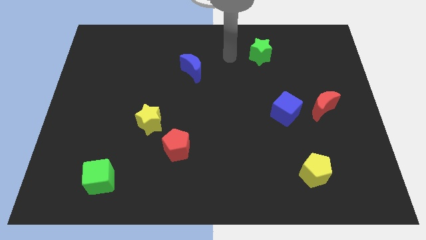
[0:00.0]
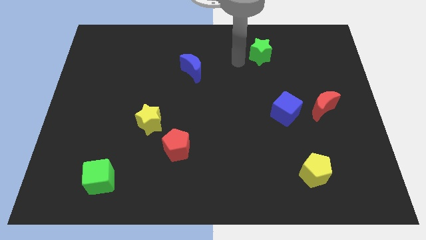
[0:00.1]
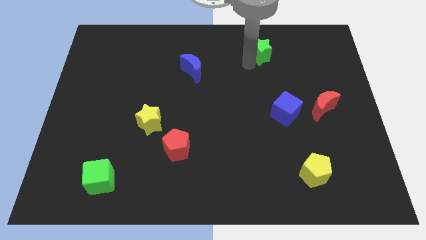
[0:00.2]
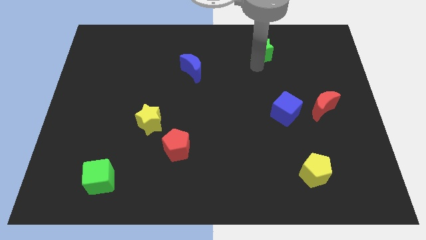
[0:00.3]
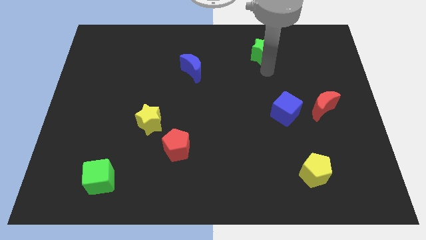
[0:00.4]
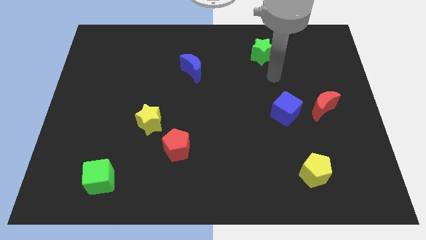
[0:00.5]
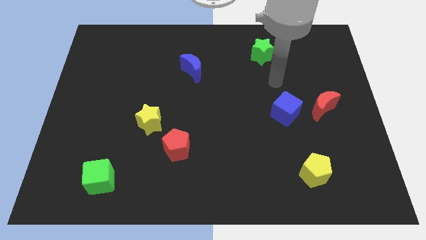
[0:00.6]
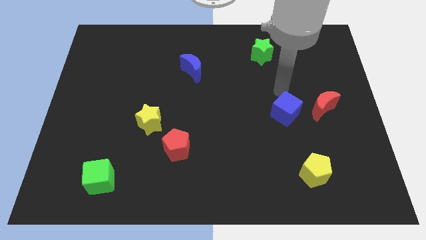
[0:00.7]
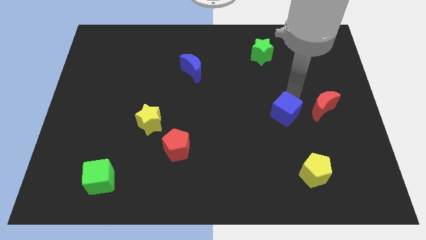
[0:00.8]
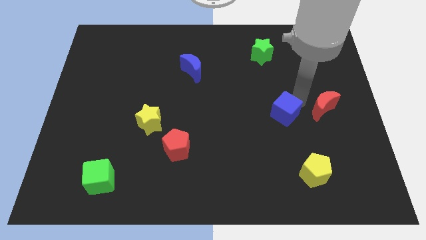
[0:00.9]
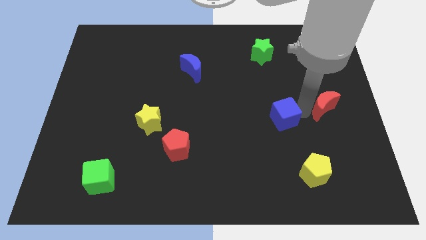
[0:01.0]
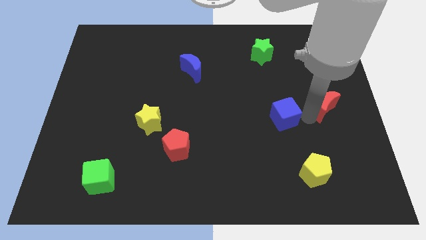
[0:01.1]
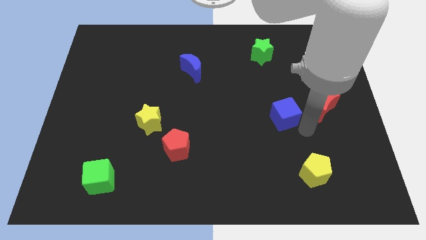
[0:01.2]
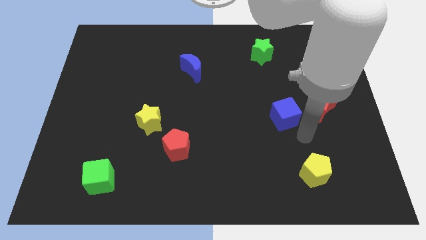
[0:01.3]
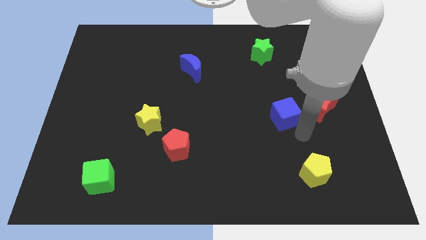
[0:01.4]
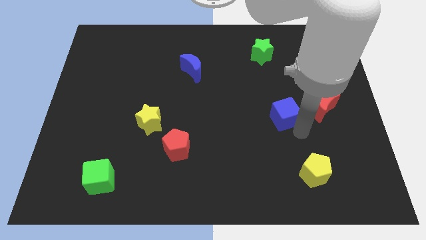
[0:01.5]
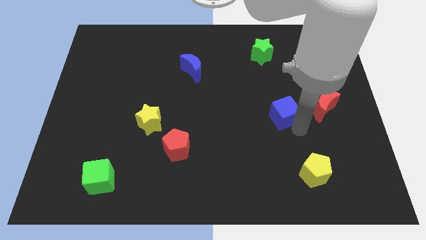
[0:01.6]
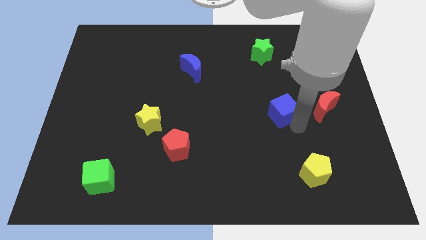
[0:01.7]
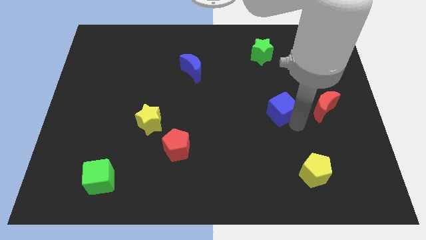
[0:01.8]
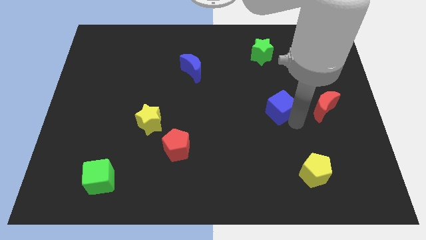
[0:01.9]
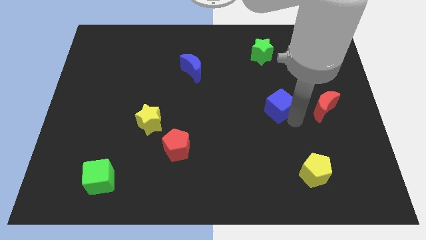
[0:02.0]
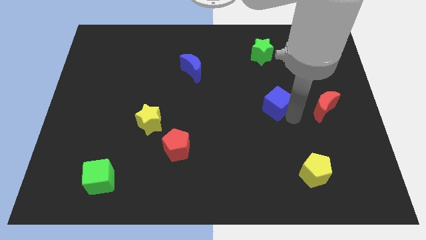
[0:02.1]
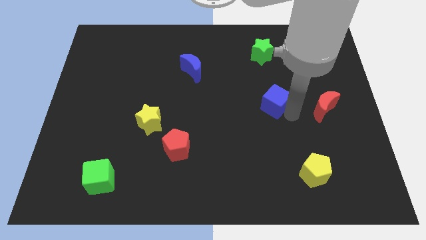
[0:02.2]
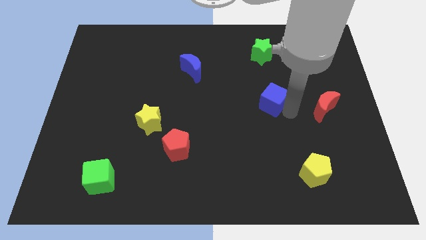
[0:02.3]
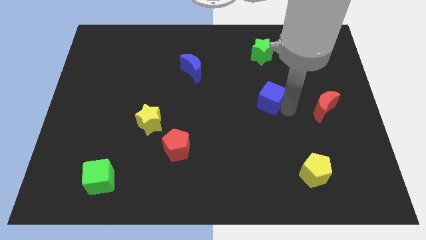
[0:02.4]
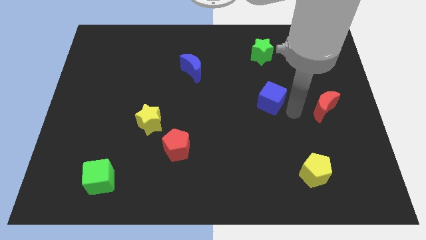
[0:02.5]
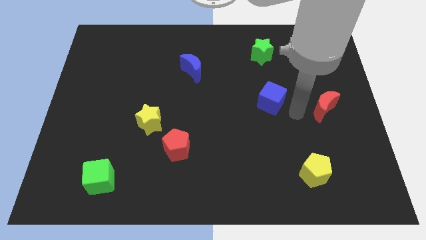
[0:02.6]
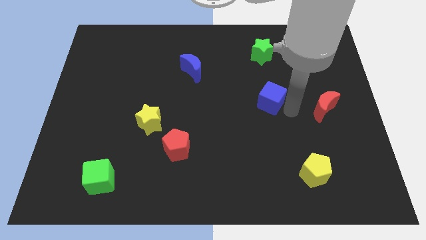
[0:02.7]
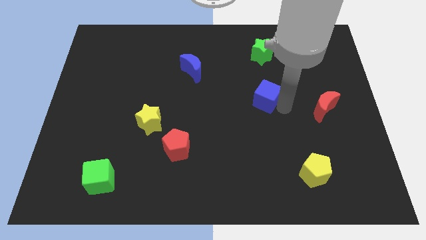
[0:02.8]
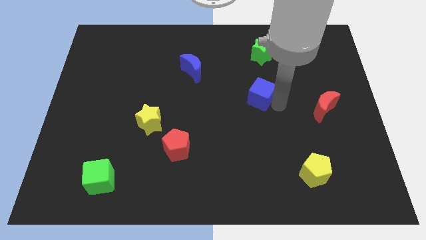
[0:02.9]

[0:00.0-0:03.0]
move the blue cube up and to the left slightly

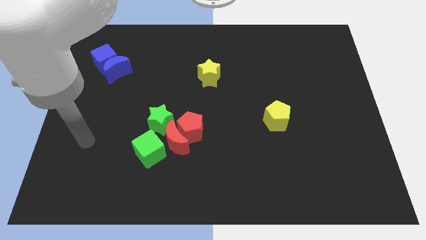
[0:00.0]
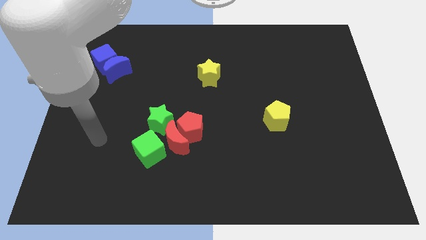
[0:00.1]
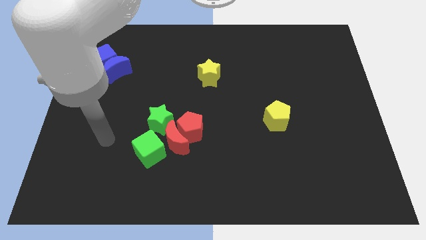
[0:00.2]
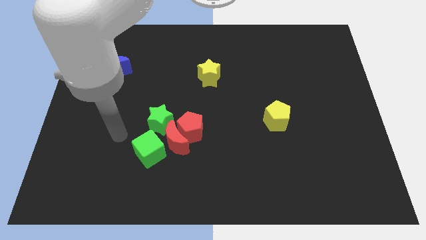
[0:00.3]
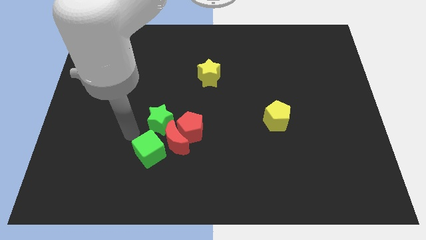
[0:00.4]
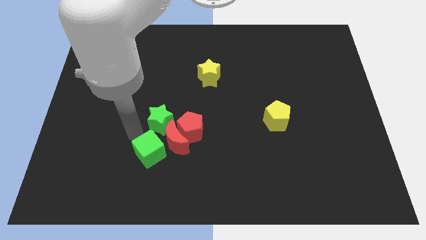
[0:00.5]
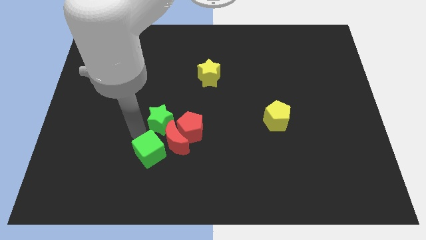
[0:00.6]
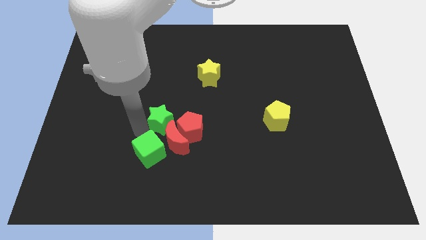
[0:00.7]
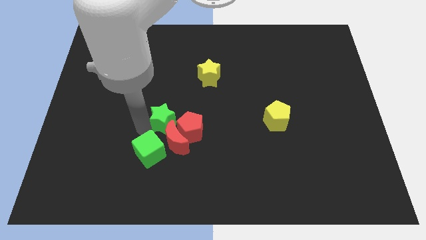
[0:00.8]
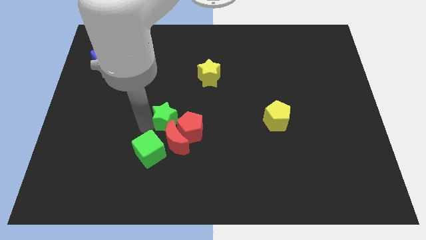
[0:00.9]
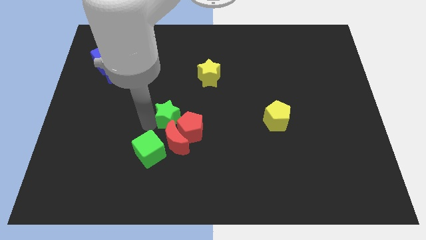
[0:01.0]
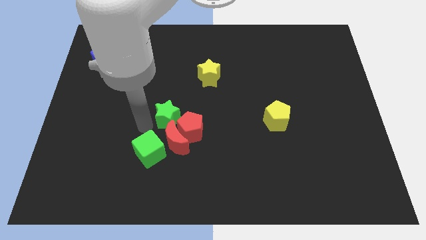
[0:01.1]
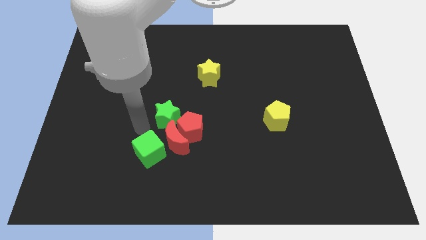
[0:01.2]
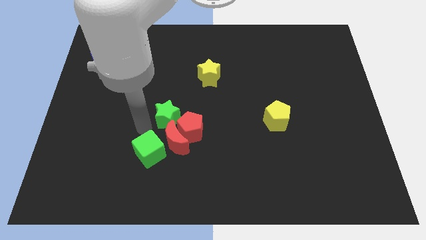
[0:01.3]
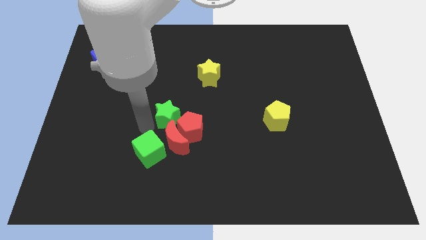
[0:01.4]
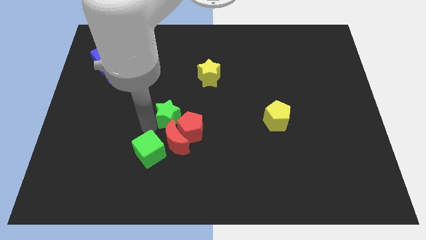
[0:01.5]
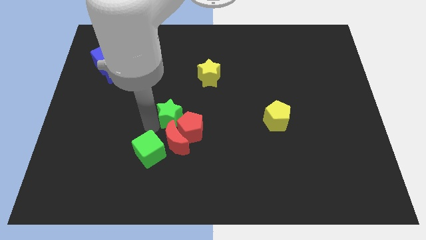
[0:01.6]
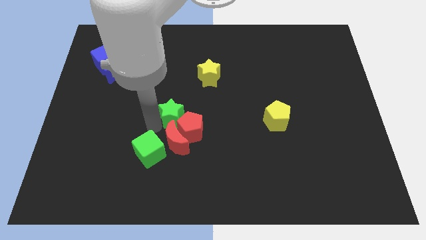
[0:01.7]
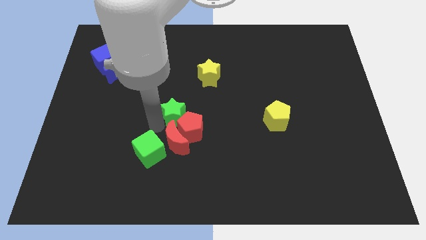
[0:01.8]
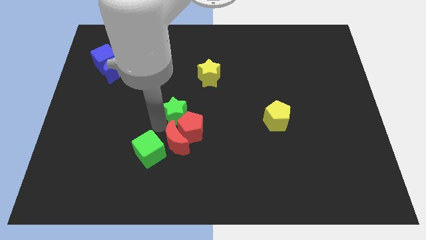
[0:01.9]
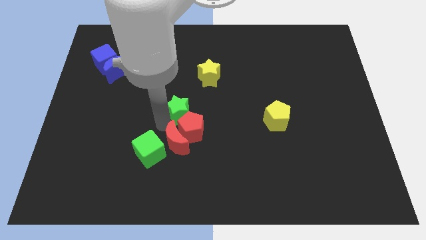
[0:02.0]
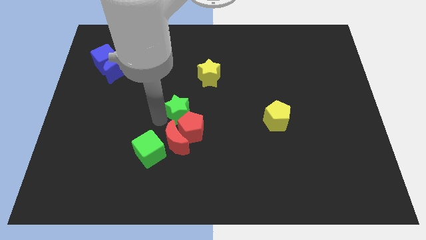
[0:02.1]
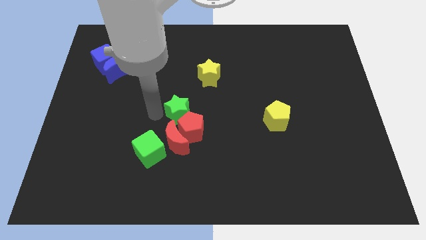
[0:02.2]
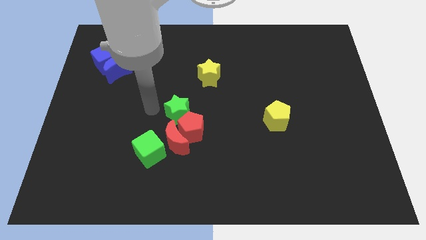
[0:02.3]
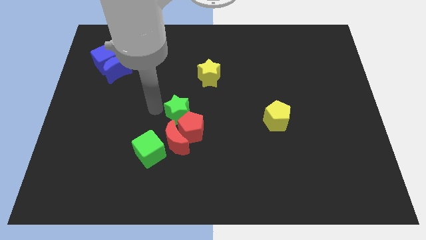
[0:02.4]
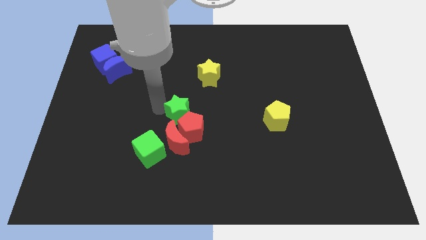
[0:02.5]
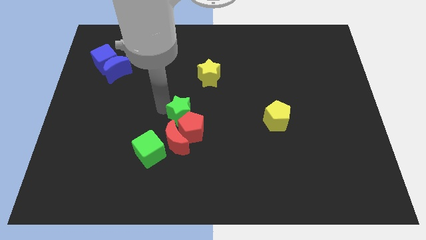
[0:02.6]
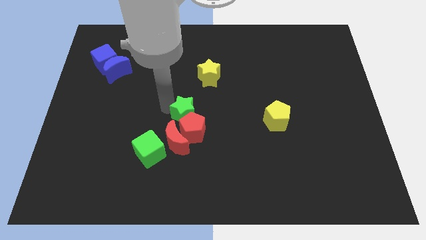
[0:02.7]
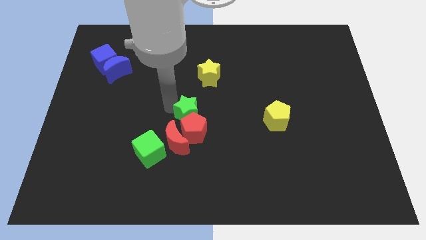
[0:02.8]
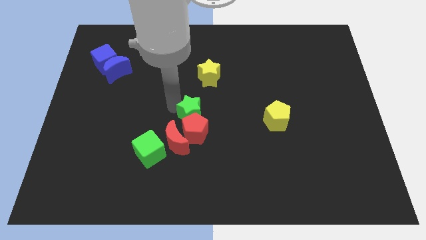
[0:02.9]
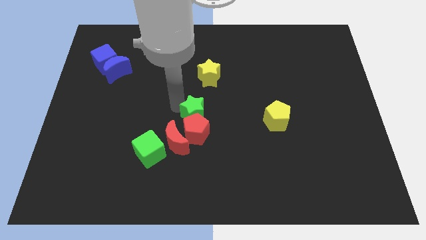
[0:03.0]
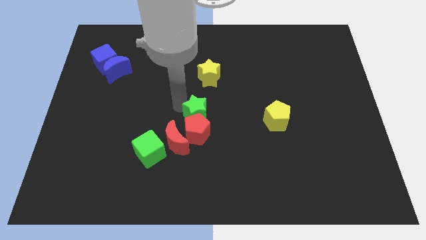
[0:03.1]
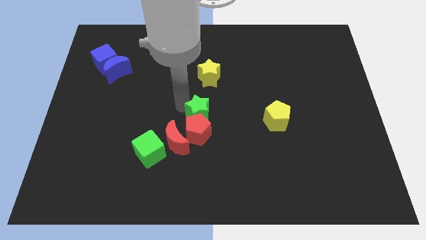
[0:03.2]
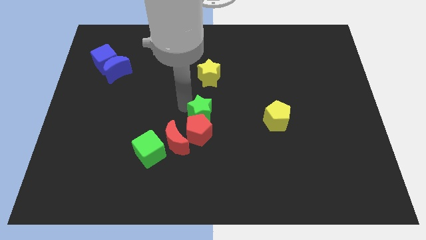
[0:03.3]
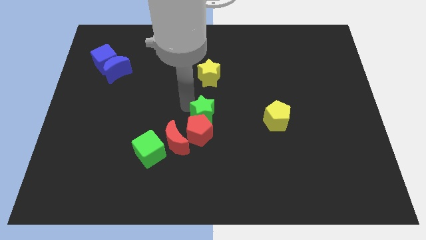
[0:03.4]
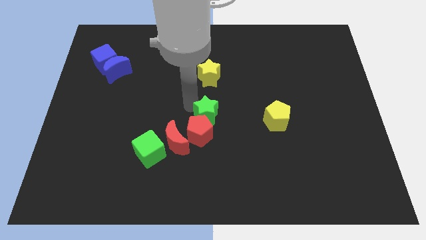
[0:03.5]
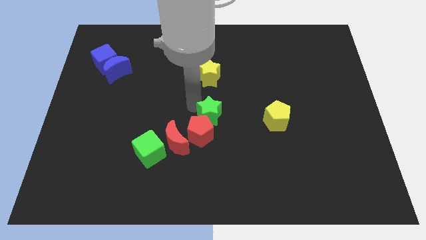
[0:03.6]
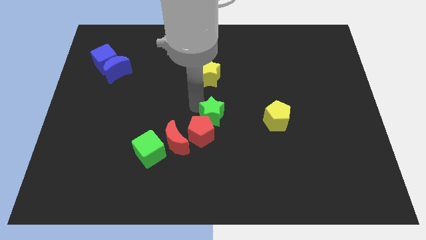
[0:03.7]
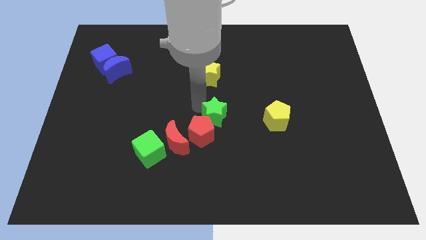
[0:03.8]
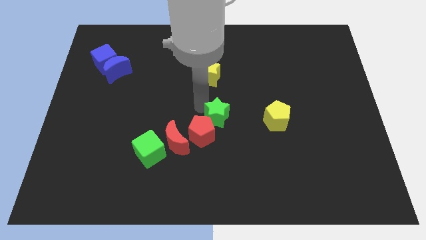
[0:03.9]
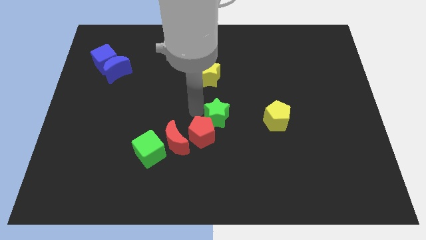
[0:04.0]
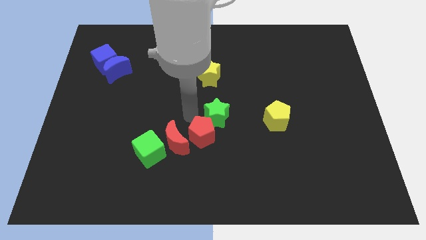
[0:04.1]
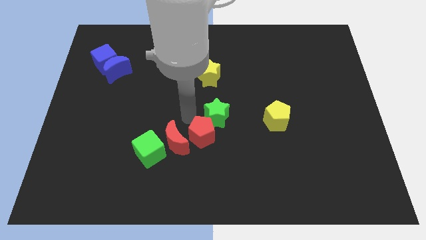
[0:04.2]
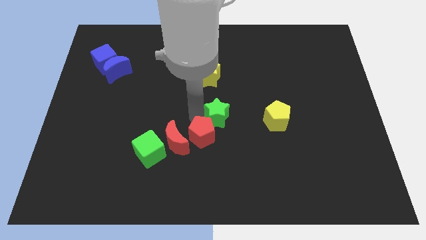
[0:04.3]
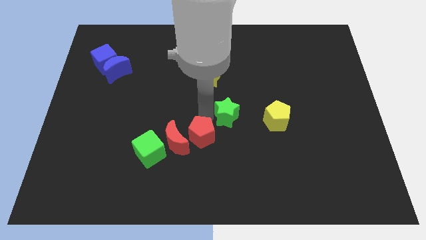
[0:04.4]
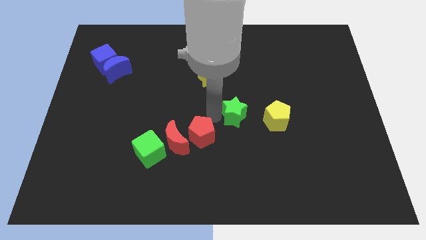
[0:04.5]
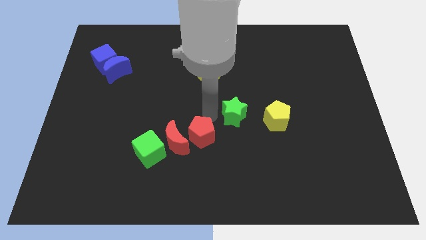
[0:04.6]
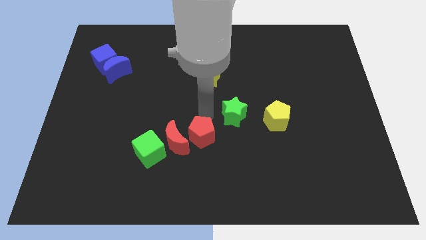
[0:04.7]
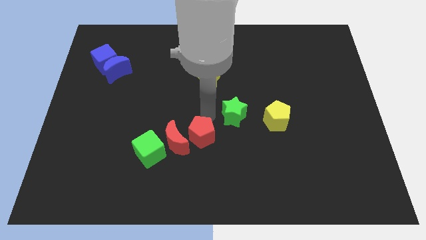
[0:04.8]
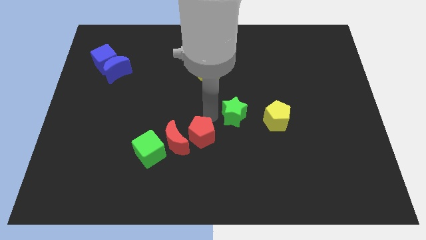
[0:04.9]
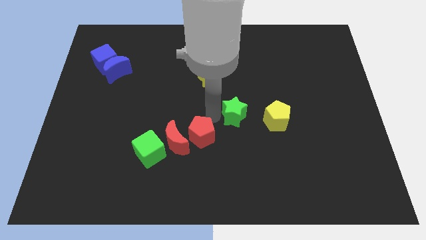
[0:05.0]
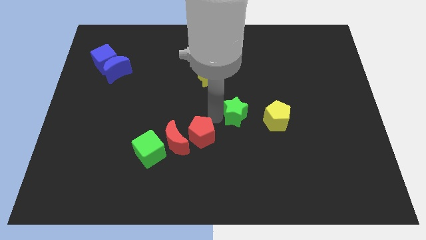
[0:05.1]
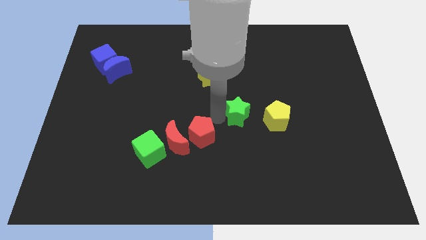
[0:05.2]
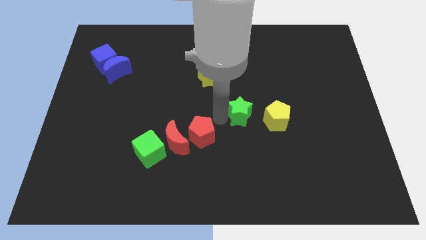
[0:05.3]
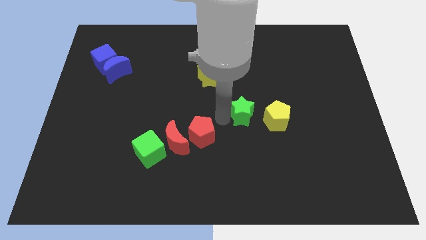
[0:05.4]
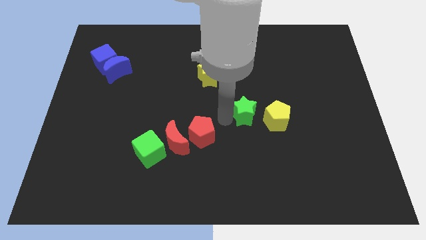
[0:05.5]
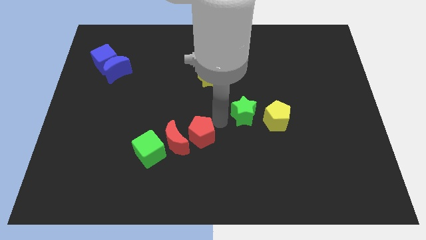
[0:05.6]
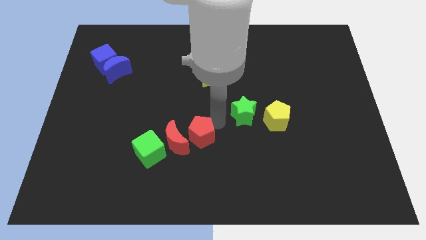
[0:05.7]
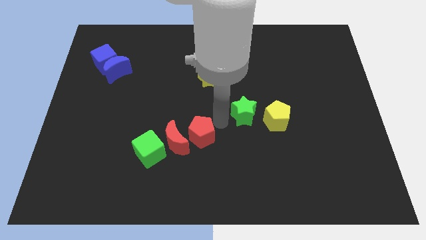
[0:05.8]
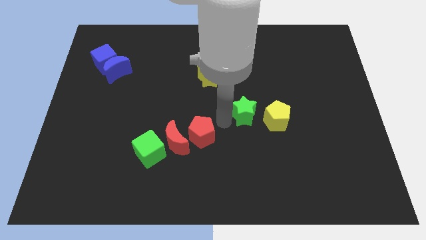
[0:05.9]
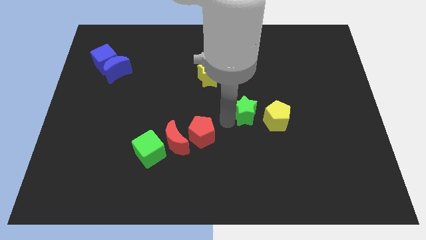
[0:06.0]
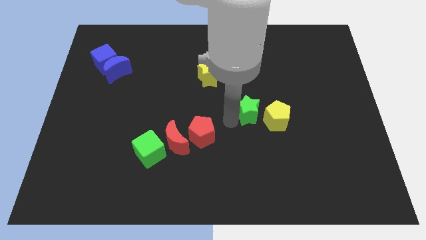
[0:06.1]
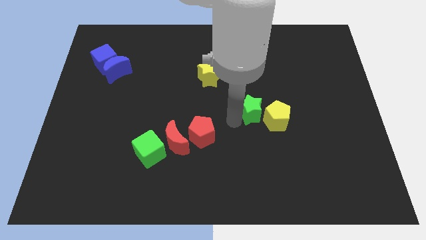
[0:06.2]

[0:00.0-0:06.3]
push the green star right
